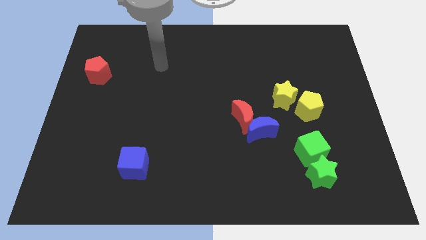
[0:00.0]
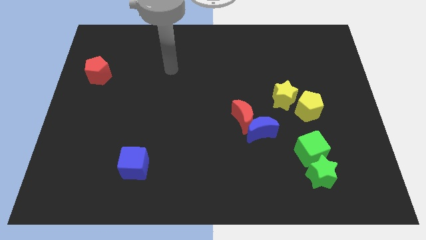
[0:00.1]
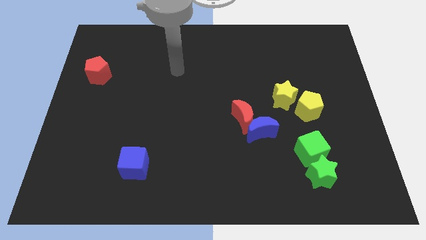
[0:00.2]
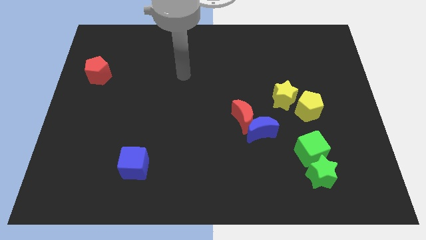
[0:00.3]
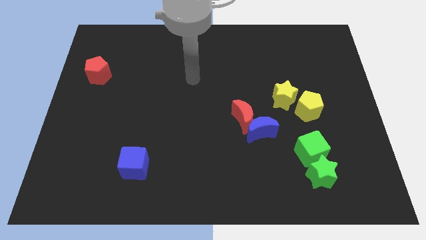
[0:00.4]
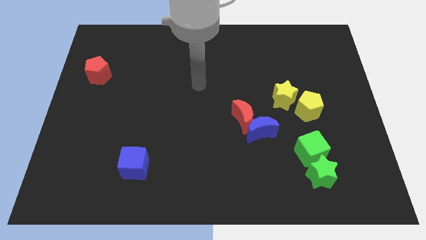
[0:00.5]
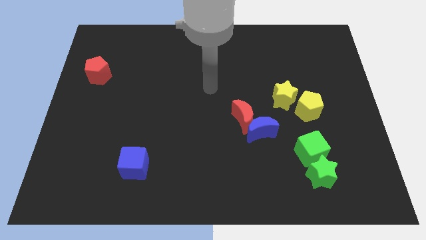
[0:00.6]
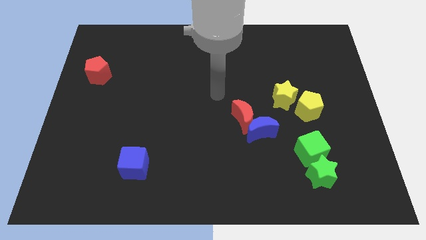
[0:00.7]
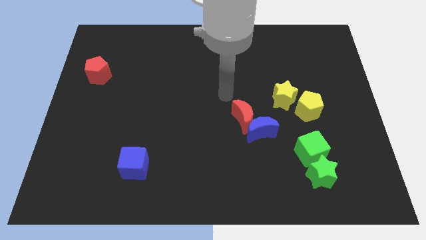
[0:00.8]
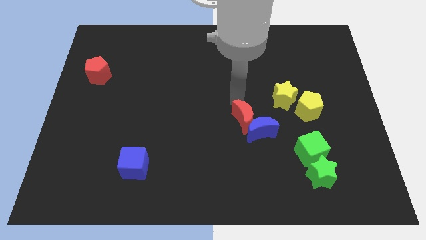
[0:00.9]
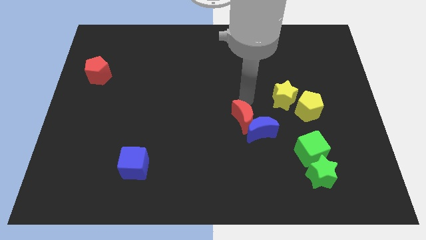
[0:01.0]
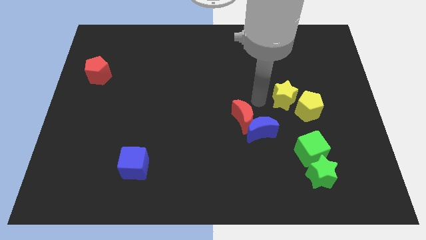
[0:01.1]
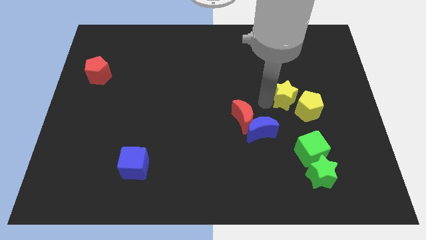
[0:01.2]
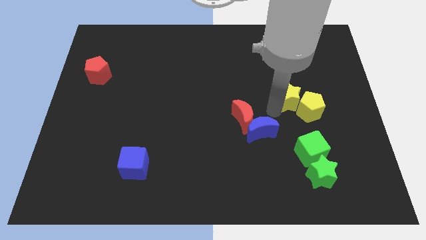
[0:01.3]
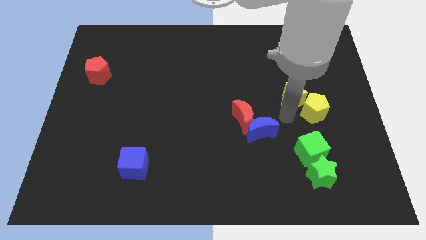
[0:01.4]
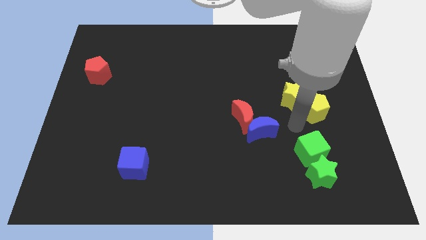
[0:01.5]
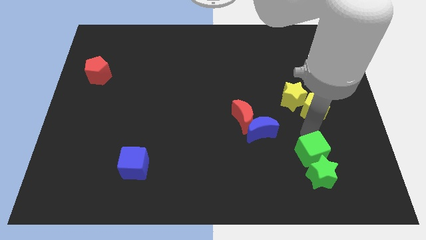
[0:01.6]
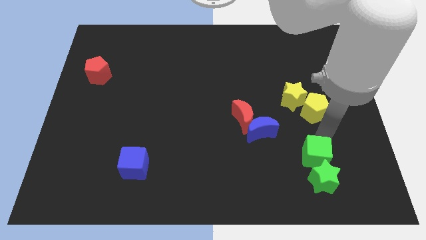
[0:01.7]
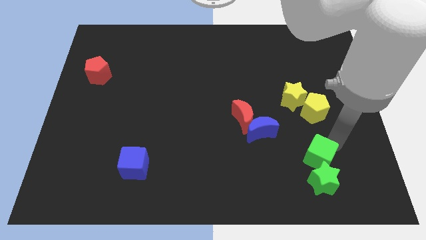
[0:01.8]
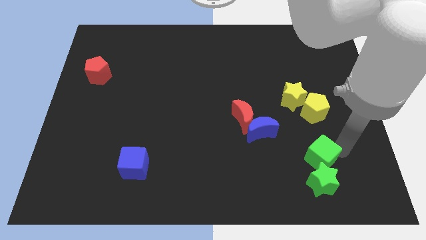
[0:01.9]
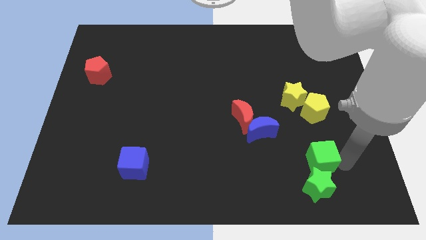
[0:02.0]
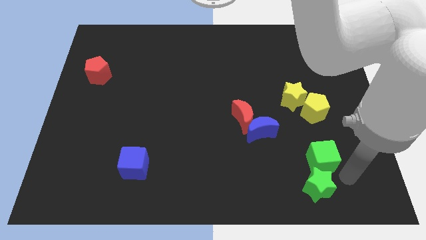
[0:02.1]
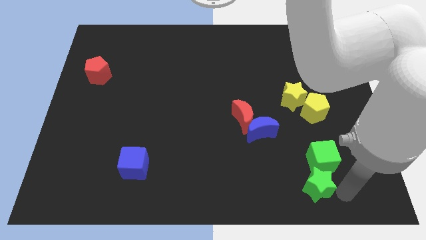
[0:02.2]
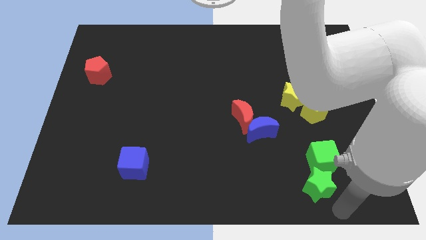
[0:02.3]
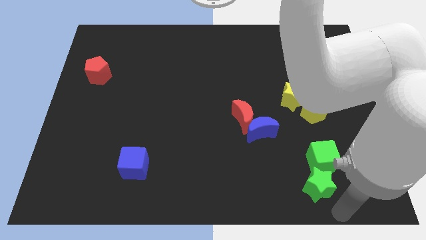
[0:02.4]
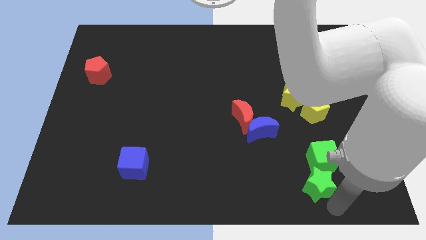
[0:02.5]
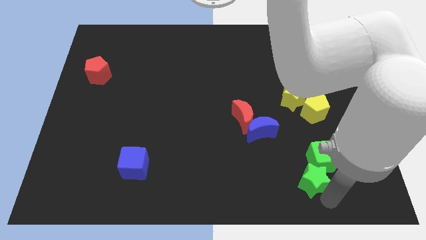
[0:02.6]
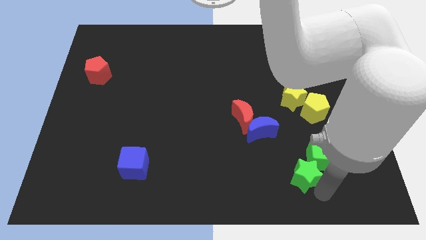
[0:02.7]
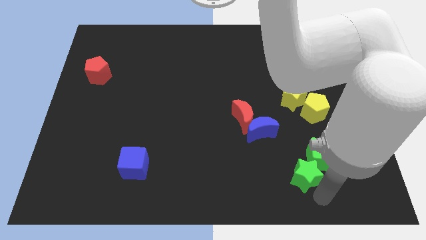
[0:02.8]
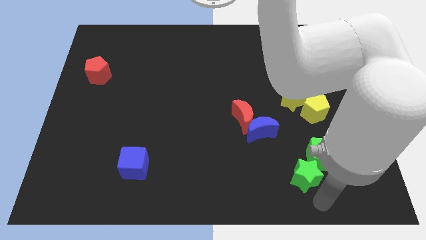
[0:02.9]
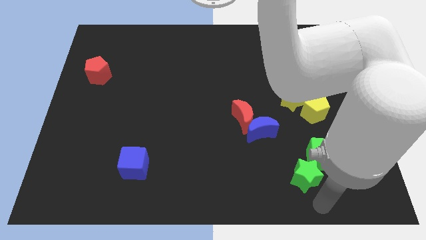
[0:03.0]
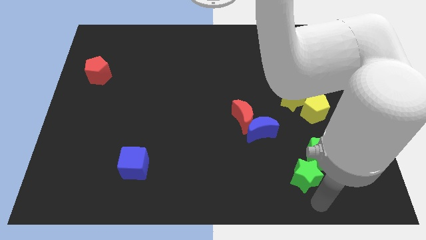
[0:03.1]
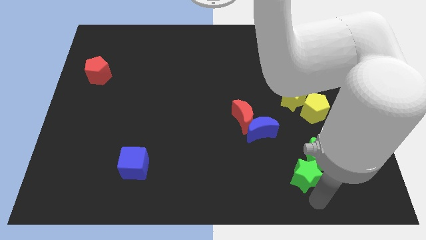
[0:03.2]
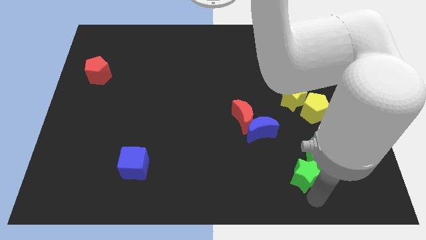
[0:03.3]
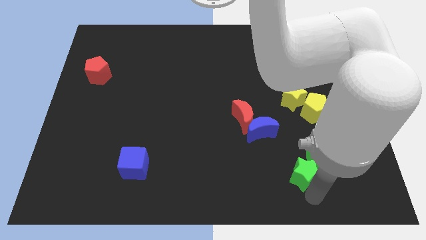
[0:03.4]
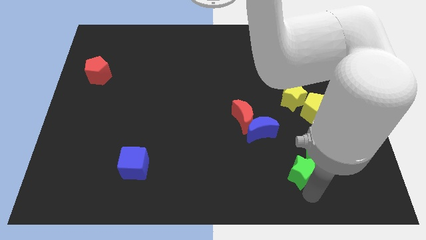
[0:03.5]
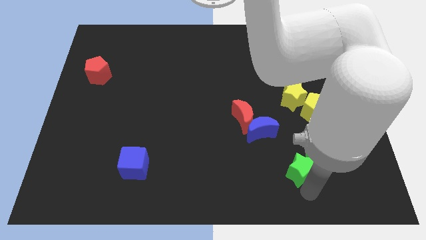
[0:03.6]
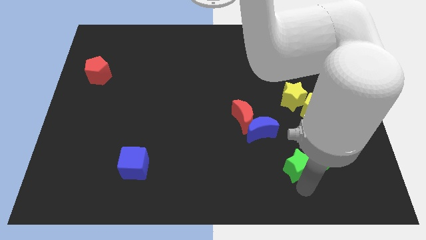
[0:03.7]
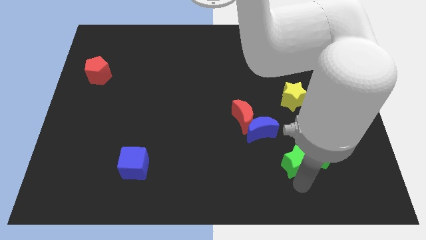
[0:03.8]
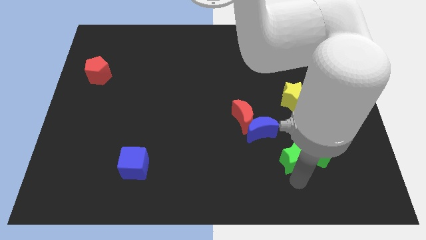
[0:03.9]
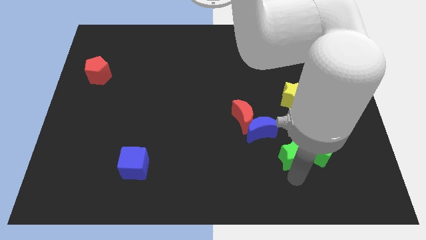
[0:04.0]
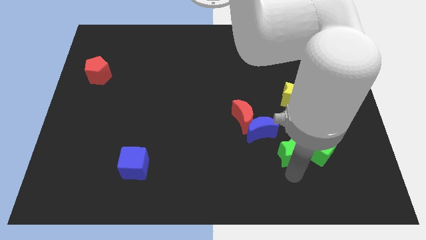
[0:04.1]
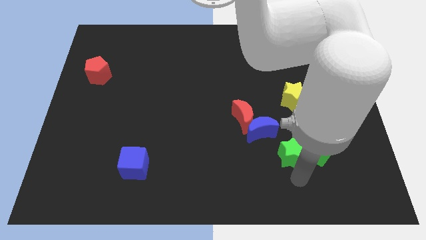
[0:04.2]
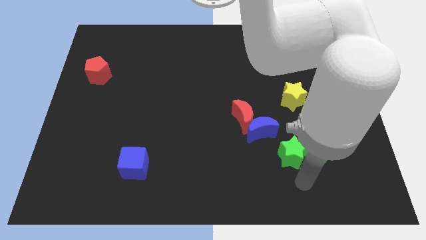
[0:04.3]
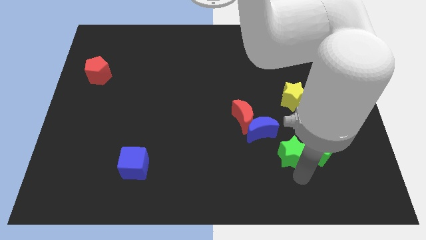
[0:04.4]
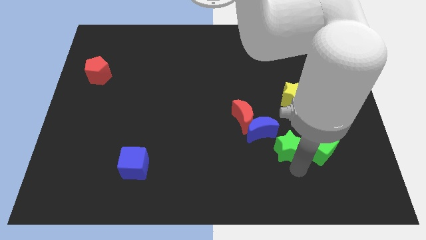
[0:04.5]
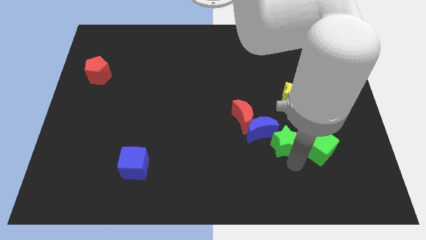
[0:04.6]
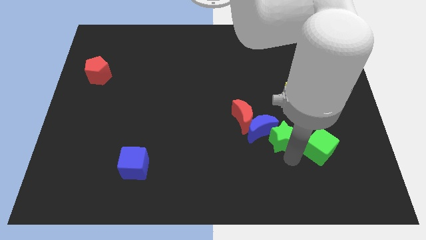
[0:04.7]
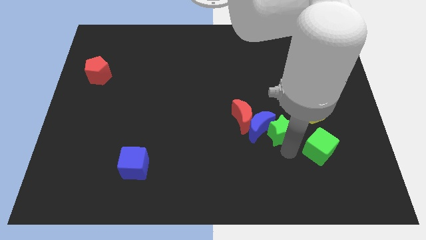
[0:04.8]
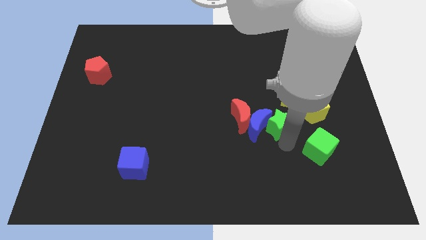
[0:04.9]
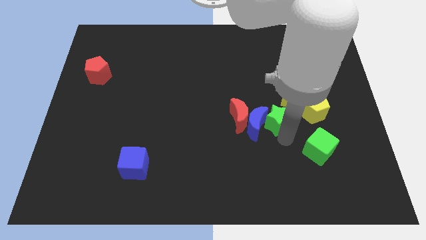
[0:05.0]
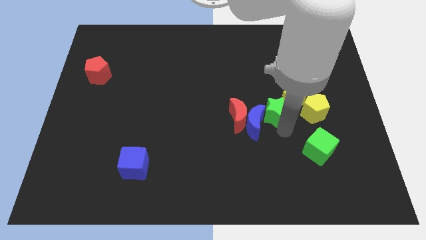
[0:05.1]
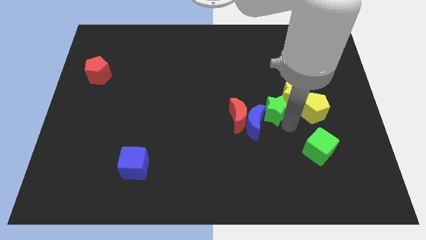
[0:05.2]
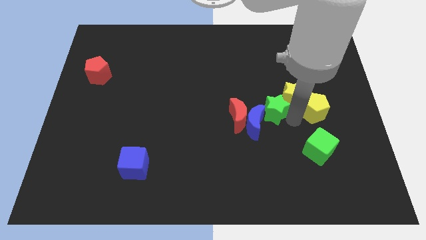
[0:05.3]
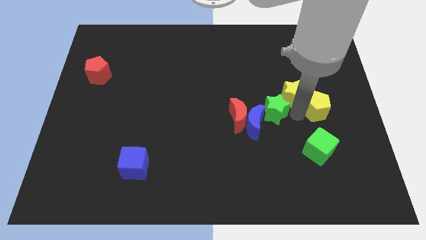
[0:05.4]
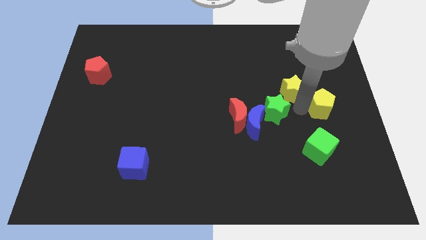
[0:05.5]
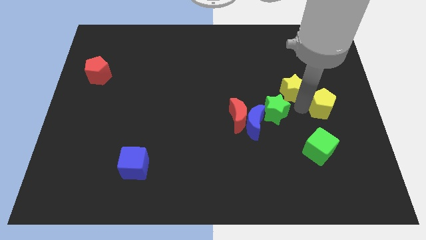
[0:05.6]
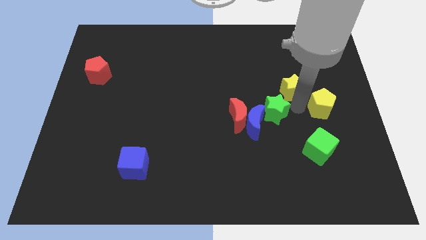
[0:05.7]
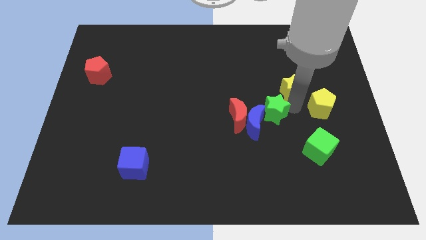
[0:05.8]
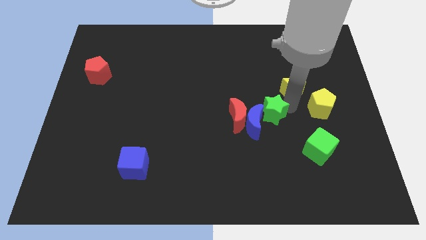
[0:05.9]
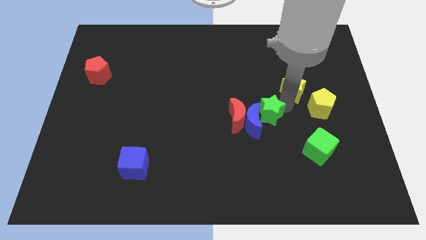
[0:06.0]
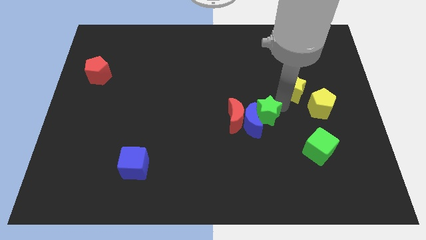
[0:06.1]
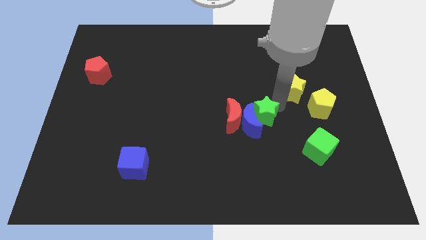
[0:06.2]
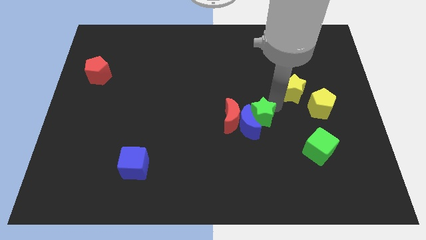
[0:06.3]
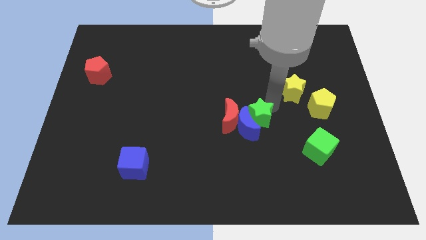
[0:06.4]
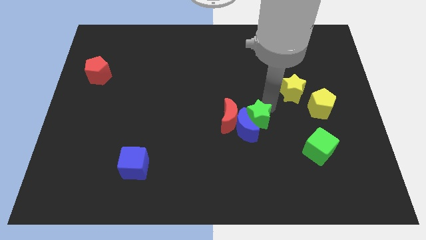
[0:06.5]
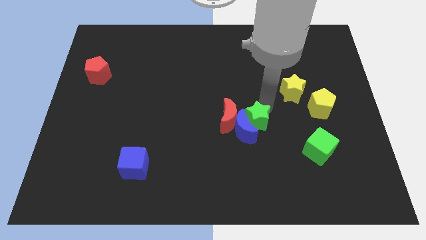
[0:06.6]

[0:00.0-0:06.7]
put the green star to the red moon

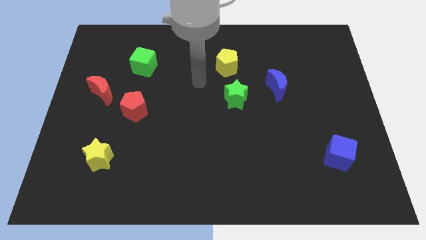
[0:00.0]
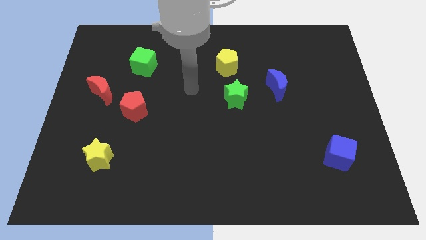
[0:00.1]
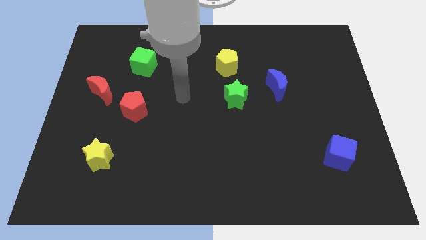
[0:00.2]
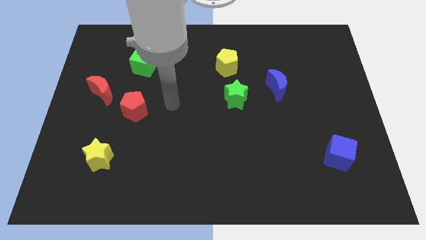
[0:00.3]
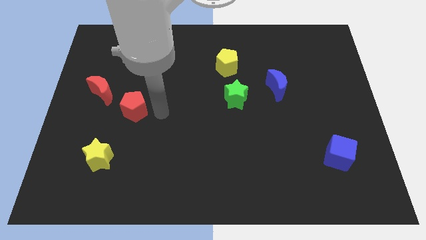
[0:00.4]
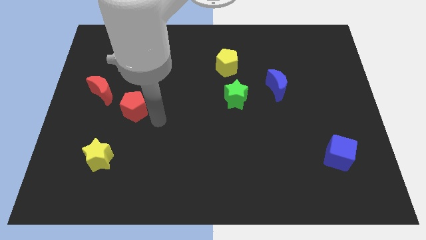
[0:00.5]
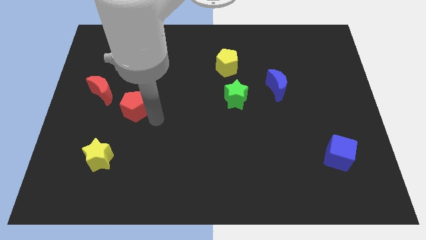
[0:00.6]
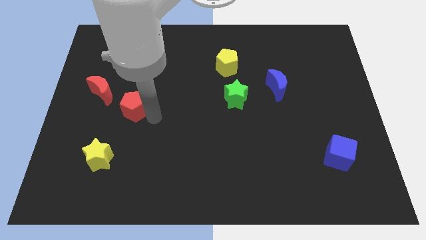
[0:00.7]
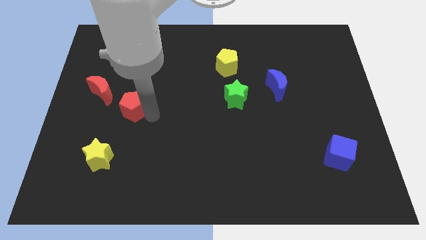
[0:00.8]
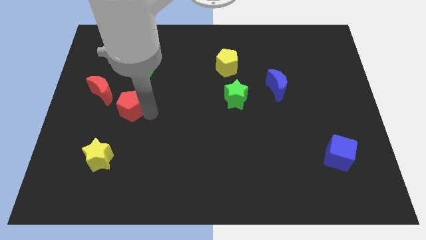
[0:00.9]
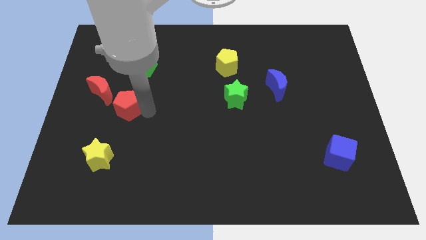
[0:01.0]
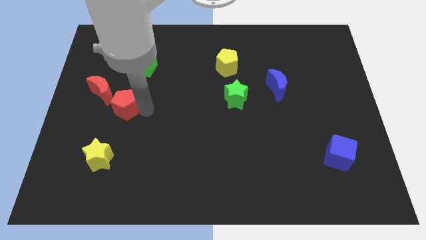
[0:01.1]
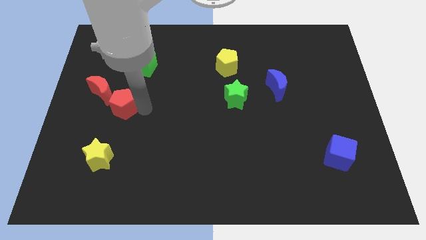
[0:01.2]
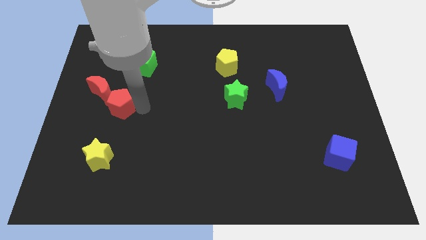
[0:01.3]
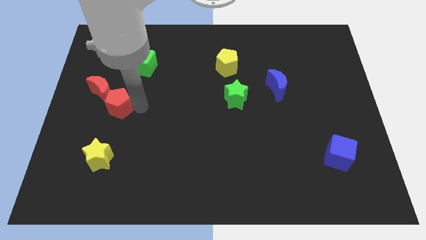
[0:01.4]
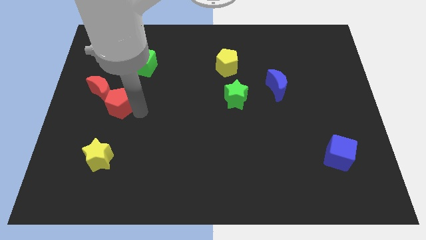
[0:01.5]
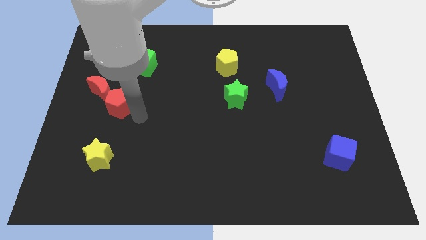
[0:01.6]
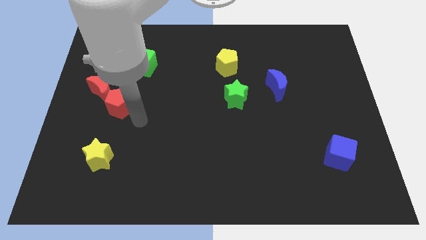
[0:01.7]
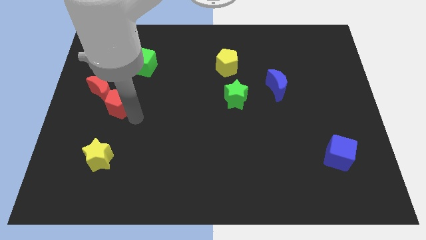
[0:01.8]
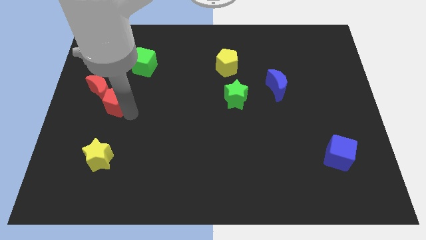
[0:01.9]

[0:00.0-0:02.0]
put the red pentagon close to the red moon
